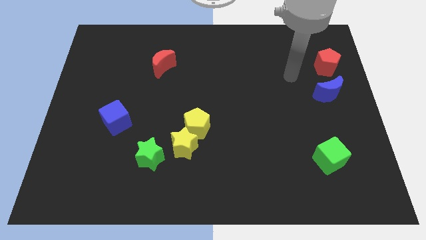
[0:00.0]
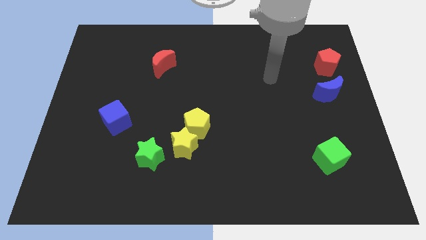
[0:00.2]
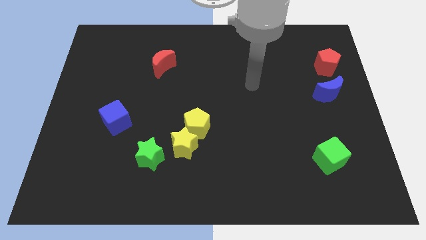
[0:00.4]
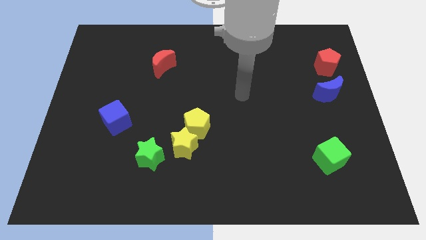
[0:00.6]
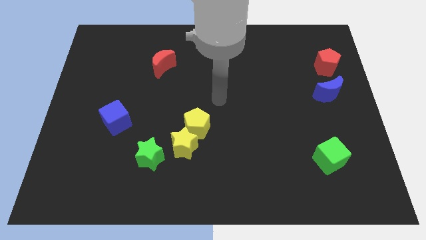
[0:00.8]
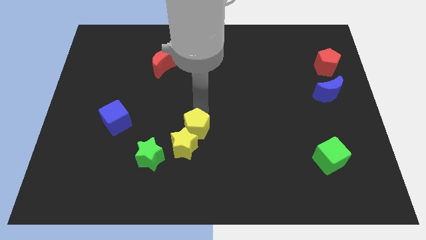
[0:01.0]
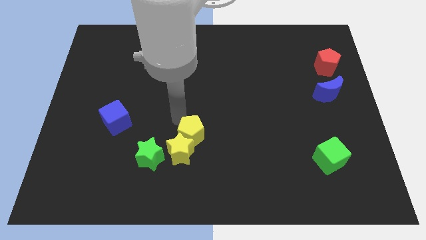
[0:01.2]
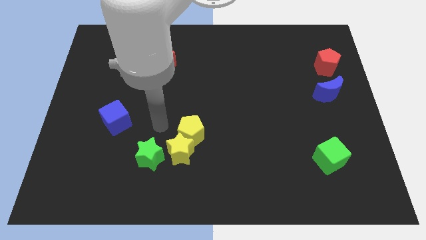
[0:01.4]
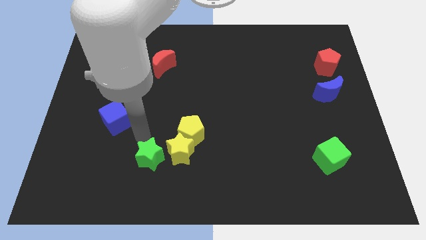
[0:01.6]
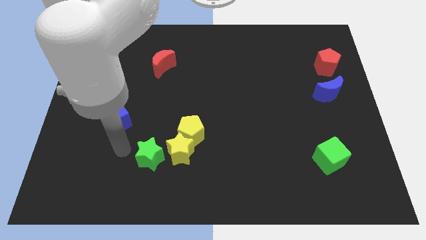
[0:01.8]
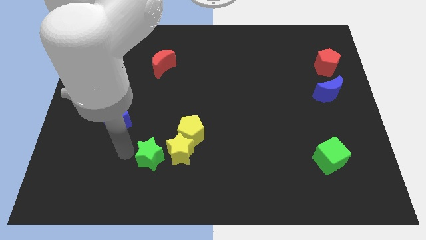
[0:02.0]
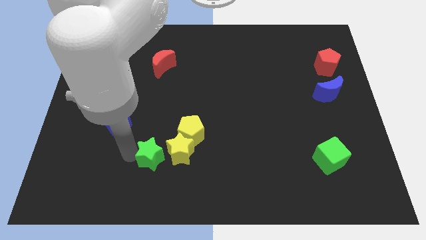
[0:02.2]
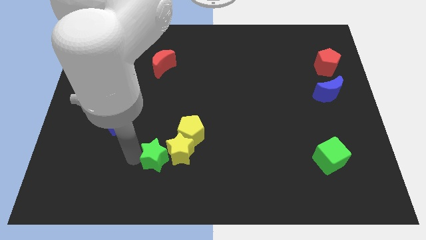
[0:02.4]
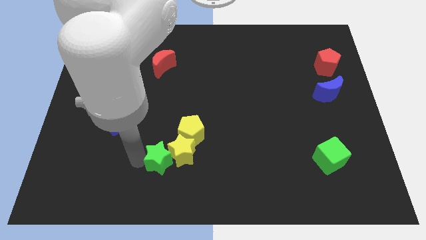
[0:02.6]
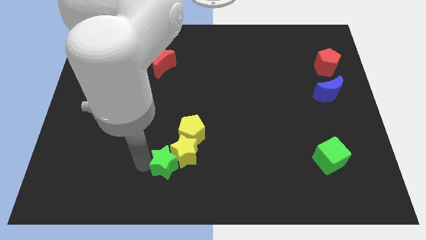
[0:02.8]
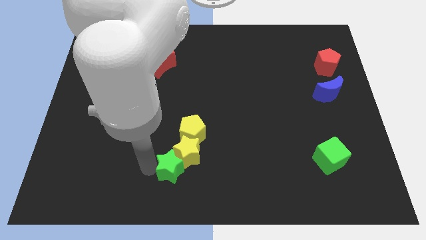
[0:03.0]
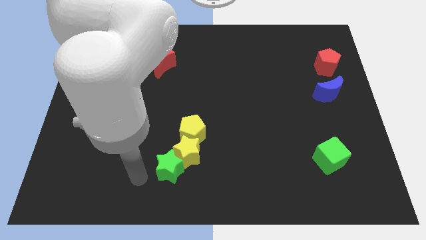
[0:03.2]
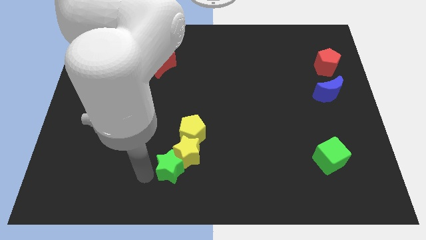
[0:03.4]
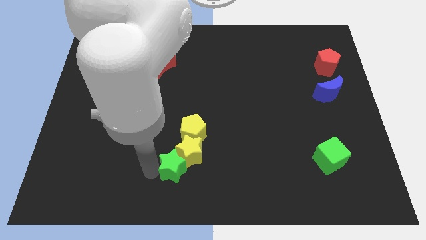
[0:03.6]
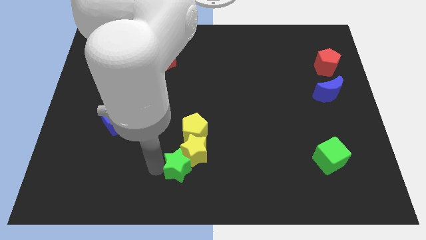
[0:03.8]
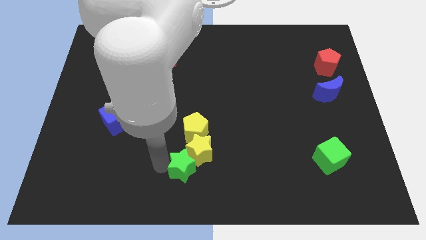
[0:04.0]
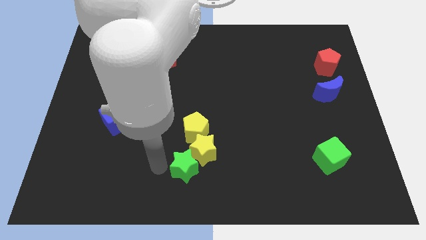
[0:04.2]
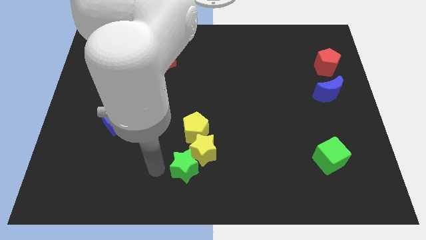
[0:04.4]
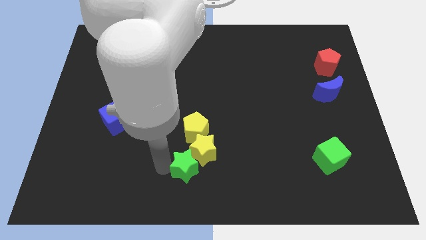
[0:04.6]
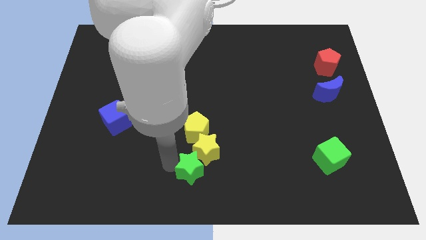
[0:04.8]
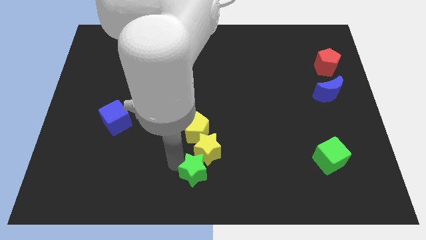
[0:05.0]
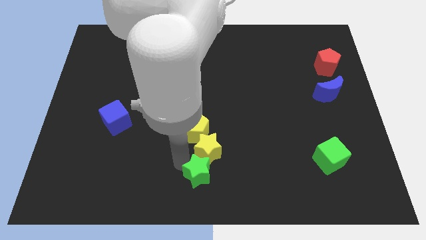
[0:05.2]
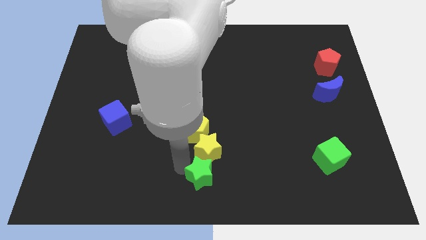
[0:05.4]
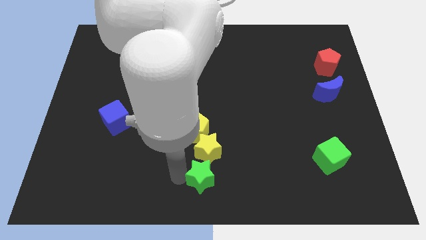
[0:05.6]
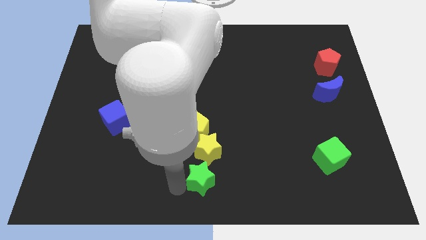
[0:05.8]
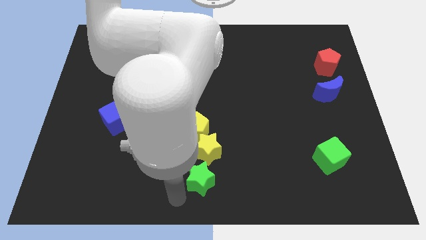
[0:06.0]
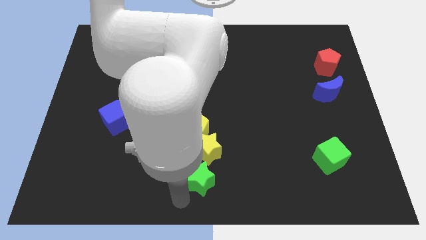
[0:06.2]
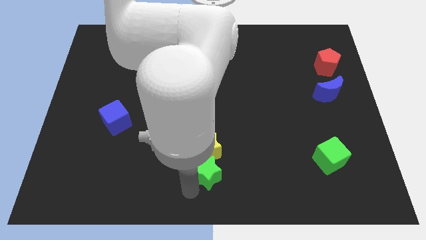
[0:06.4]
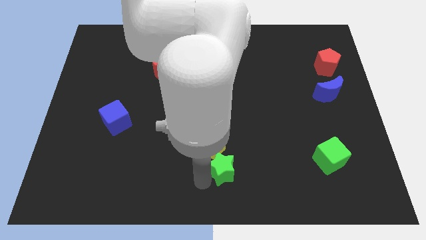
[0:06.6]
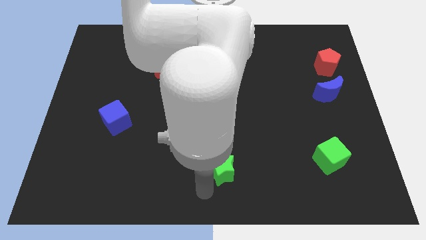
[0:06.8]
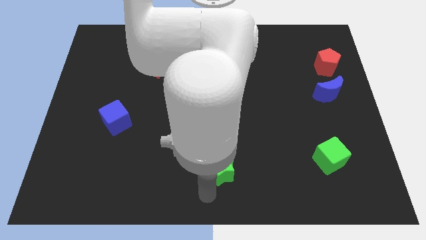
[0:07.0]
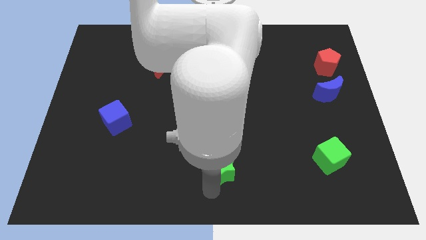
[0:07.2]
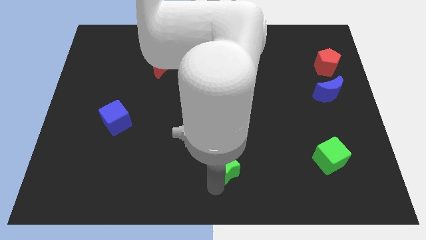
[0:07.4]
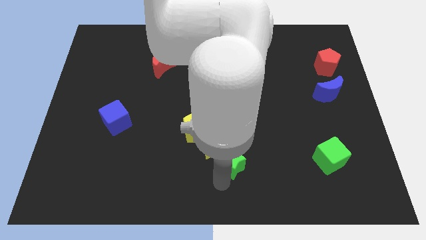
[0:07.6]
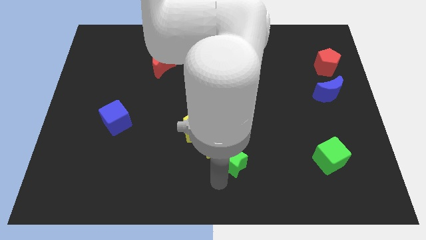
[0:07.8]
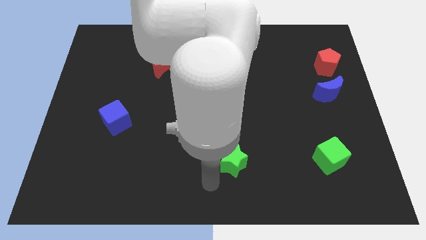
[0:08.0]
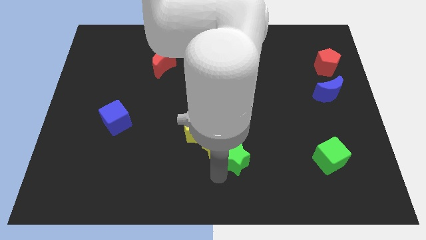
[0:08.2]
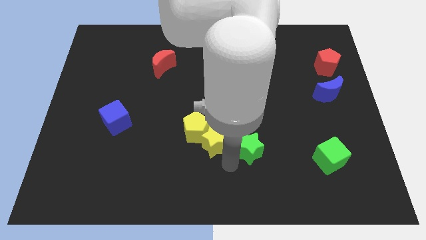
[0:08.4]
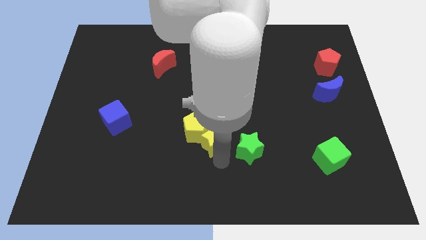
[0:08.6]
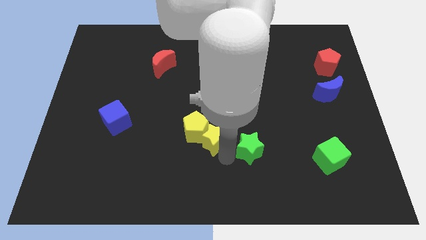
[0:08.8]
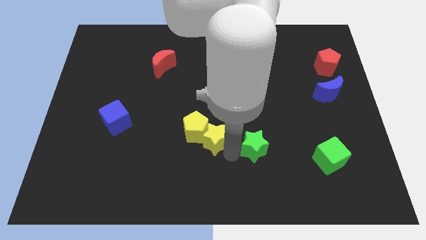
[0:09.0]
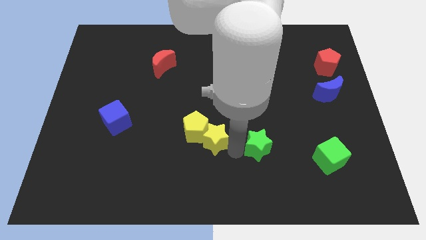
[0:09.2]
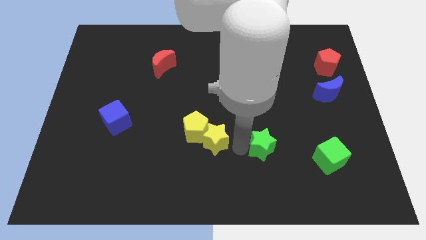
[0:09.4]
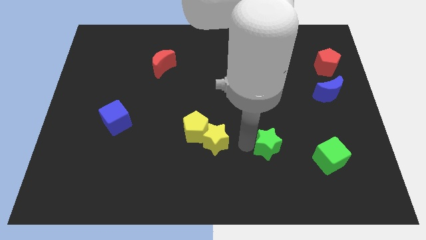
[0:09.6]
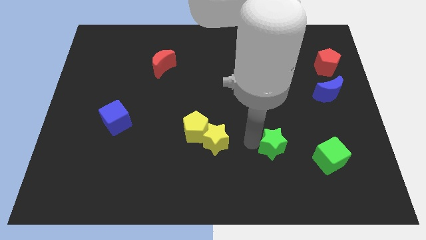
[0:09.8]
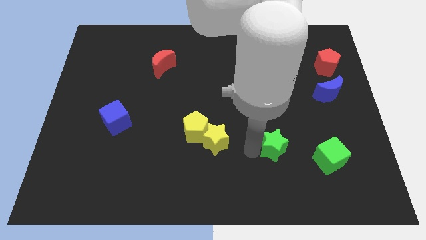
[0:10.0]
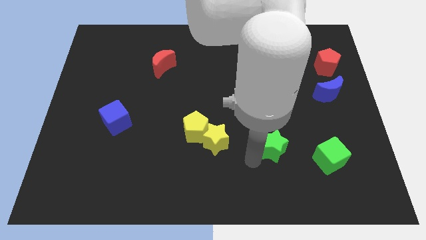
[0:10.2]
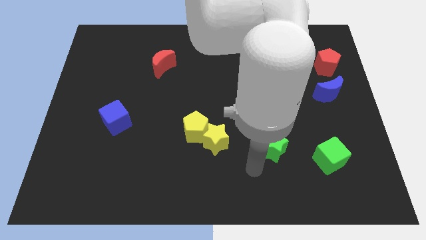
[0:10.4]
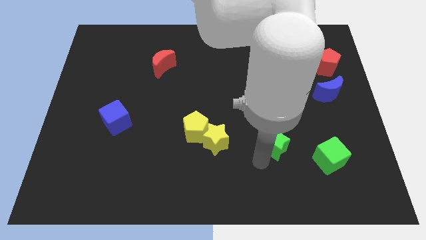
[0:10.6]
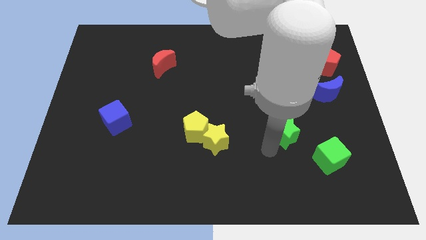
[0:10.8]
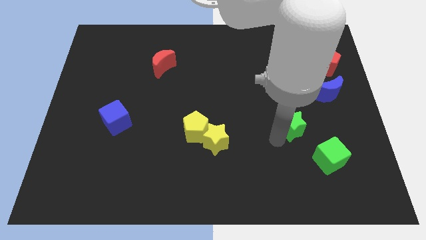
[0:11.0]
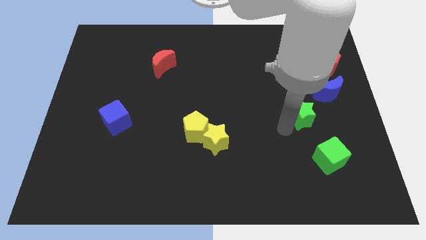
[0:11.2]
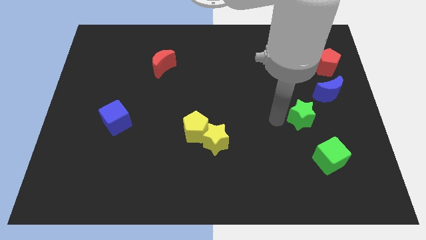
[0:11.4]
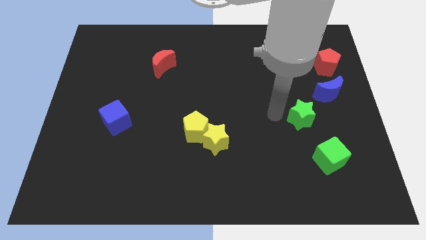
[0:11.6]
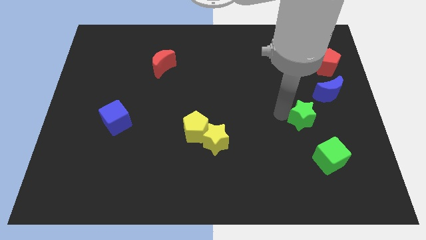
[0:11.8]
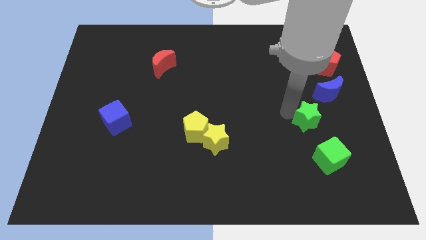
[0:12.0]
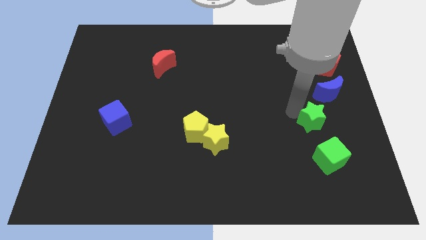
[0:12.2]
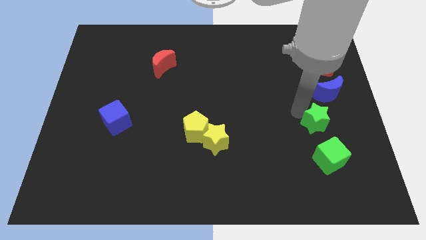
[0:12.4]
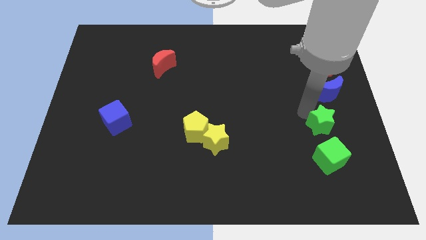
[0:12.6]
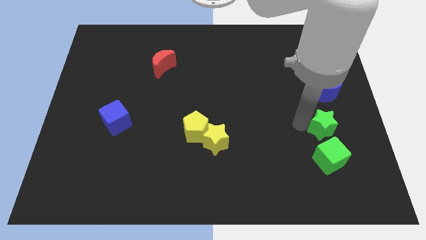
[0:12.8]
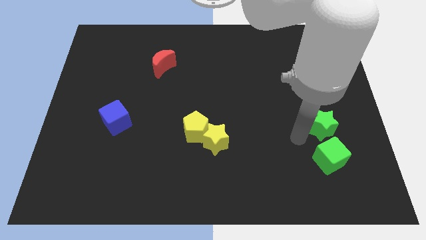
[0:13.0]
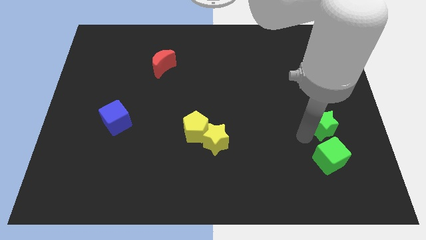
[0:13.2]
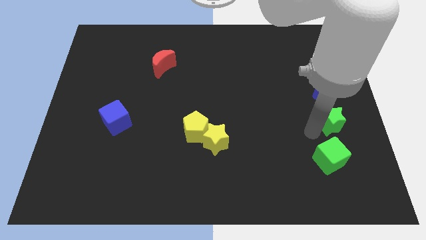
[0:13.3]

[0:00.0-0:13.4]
put the green star to the right side

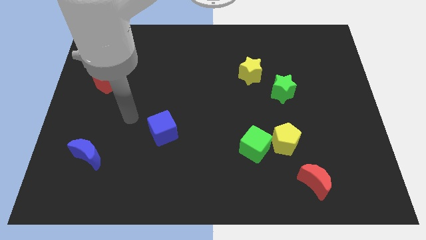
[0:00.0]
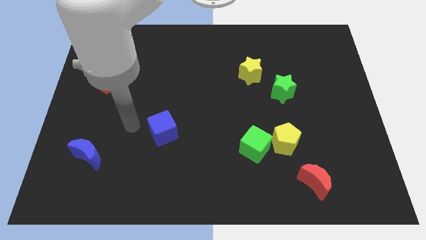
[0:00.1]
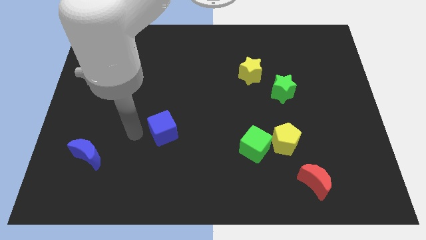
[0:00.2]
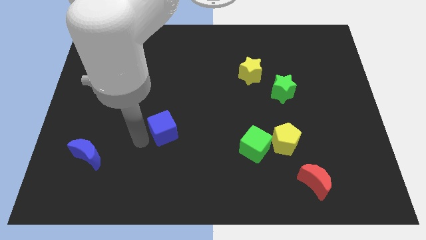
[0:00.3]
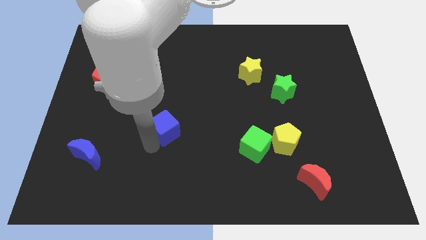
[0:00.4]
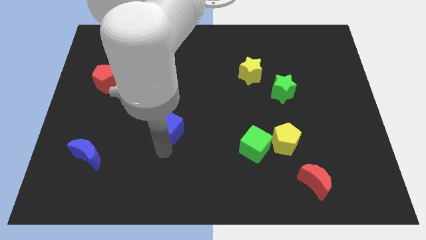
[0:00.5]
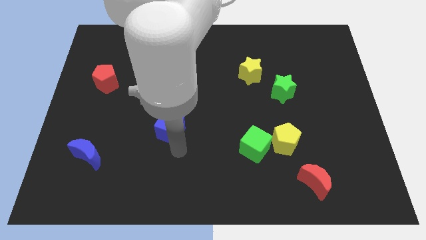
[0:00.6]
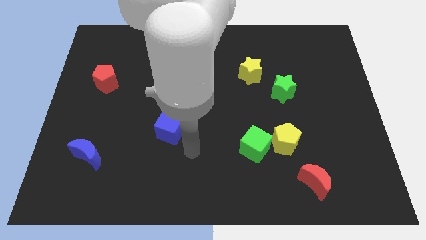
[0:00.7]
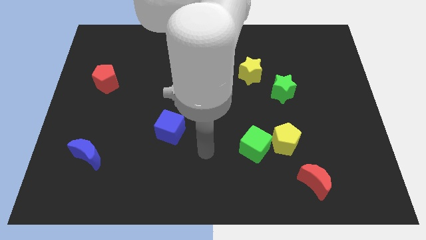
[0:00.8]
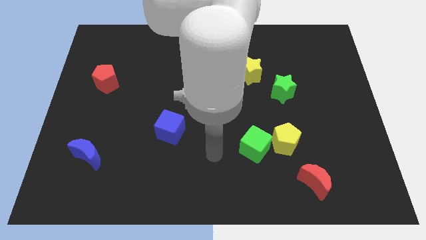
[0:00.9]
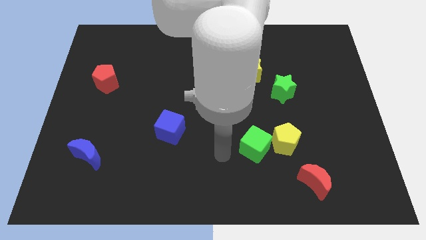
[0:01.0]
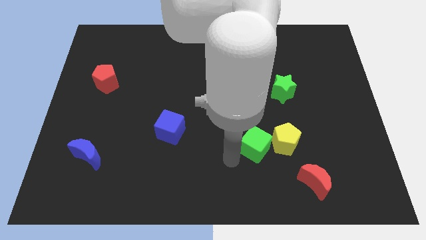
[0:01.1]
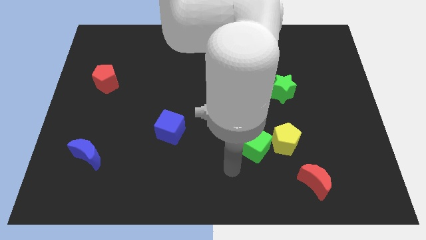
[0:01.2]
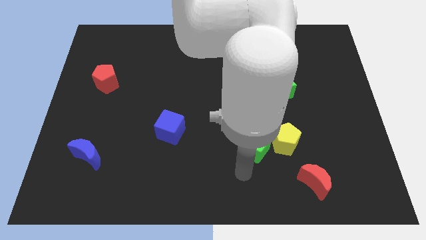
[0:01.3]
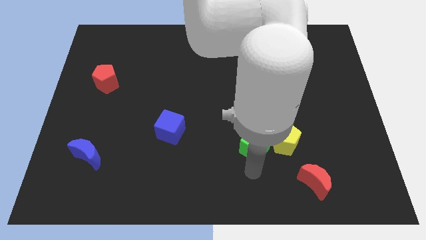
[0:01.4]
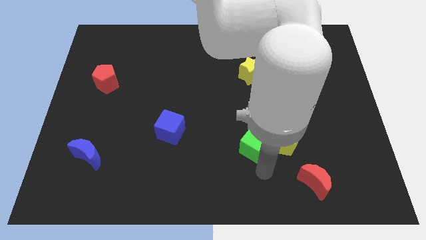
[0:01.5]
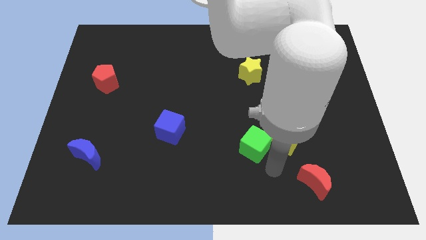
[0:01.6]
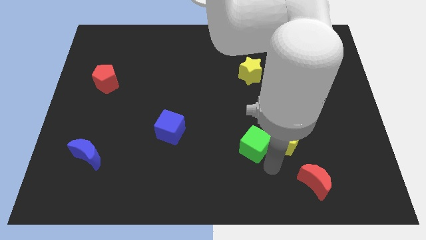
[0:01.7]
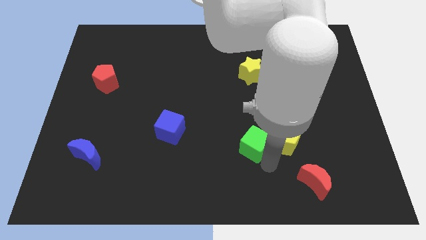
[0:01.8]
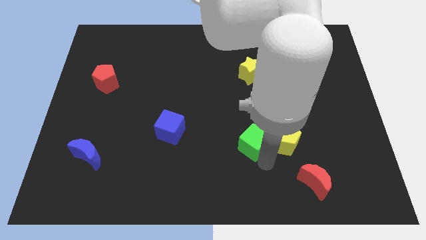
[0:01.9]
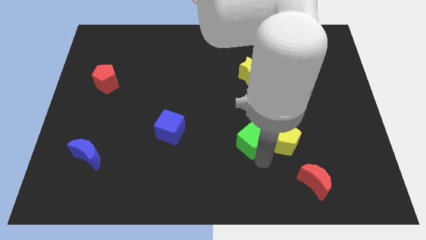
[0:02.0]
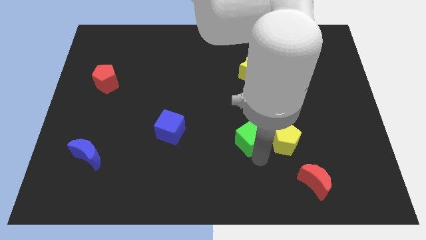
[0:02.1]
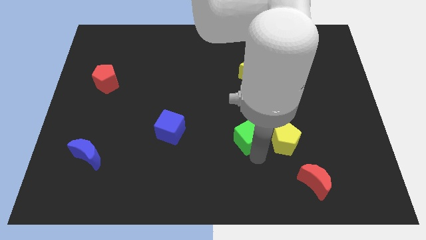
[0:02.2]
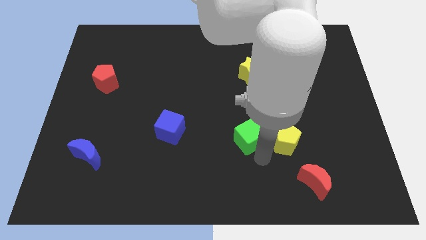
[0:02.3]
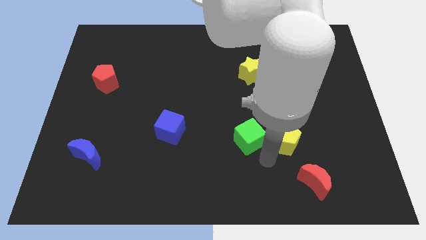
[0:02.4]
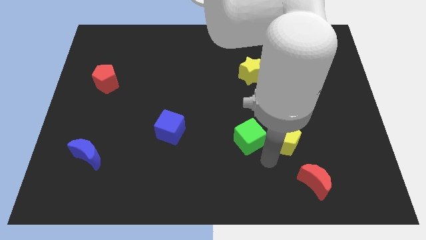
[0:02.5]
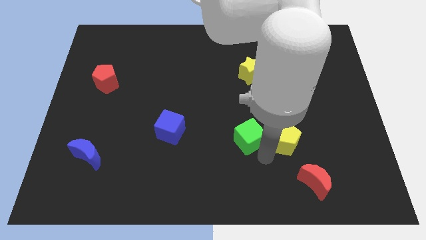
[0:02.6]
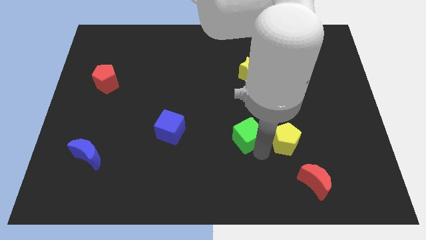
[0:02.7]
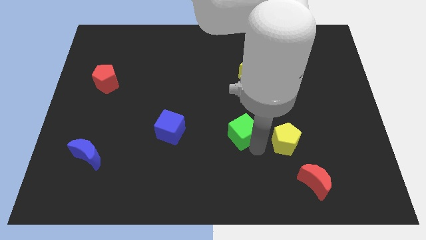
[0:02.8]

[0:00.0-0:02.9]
slide the green cube to the middle
